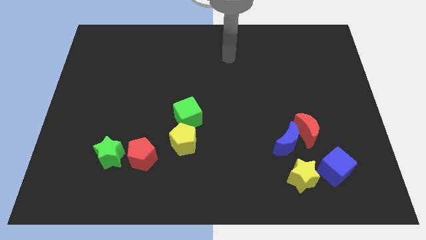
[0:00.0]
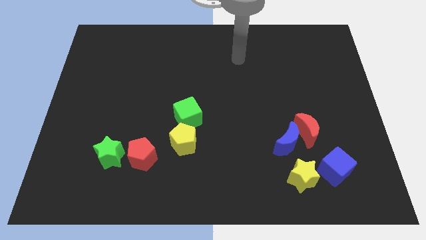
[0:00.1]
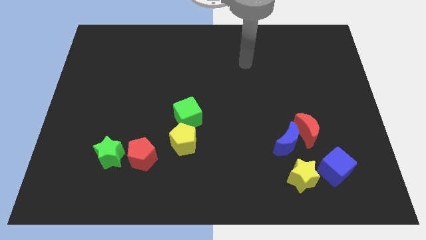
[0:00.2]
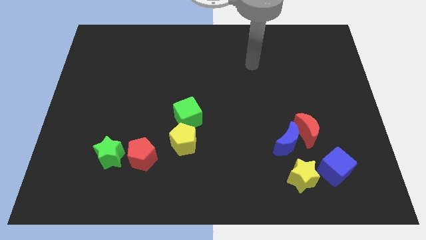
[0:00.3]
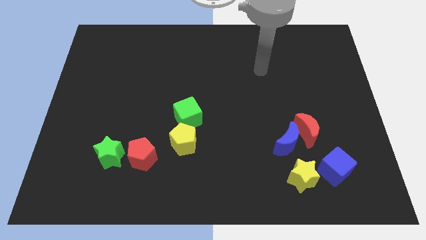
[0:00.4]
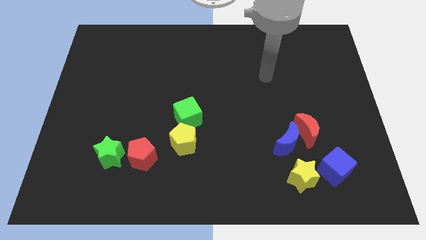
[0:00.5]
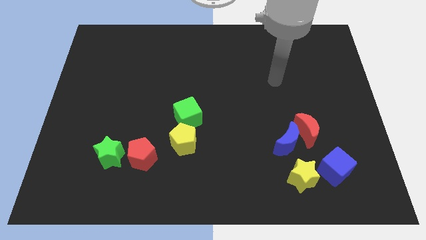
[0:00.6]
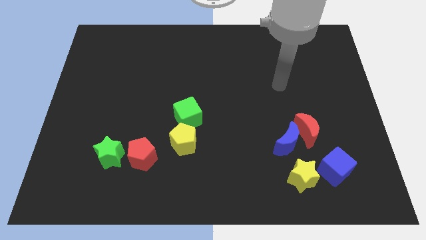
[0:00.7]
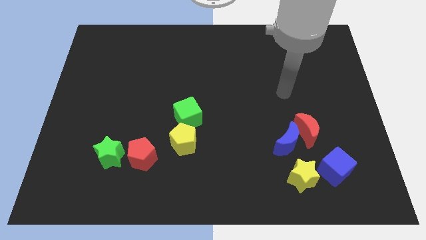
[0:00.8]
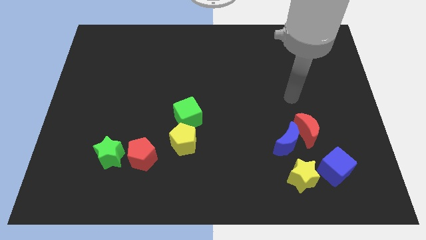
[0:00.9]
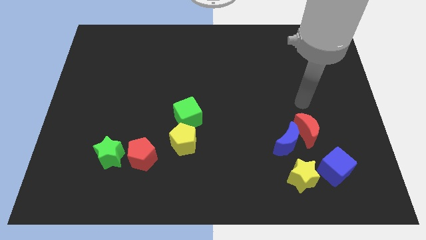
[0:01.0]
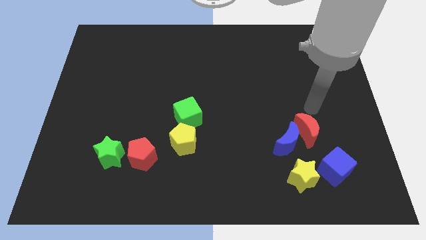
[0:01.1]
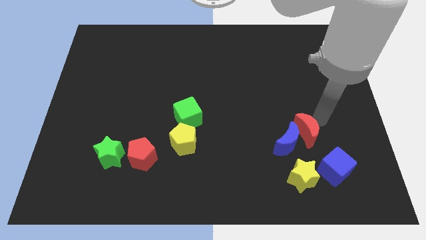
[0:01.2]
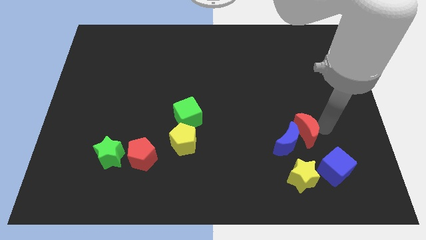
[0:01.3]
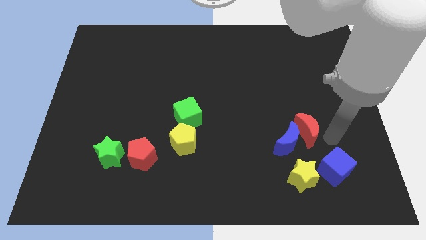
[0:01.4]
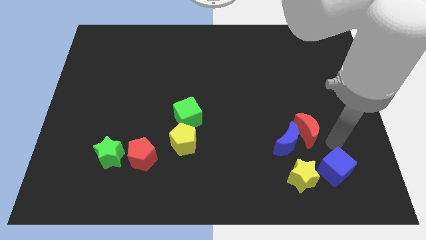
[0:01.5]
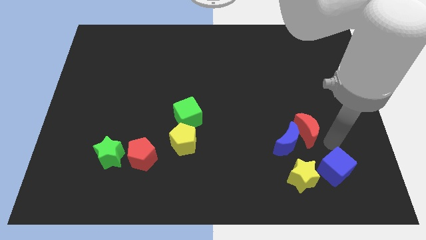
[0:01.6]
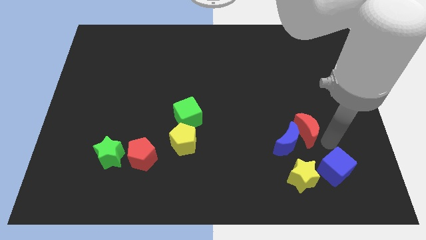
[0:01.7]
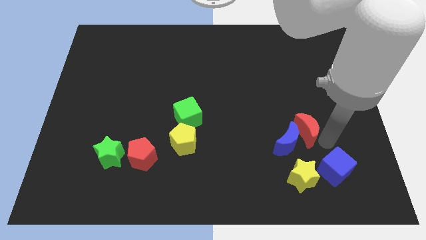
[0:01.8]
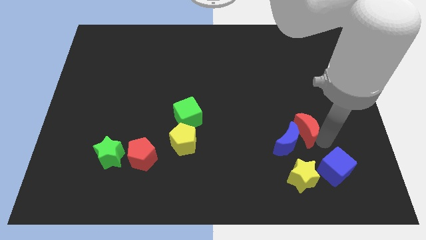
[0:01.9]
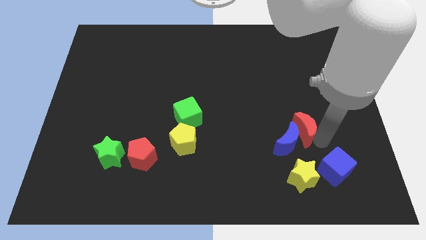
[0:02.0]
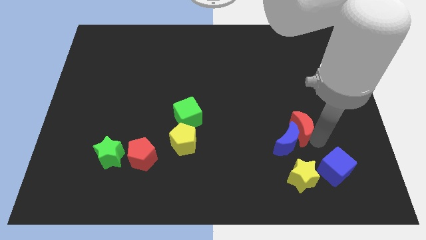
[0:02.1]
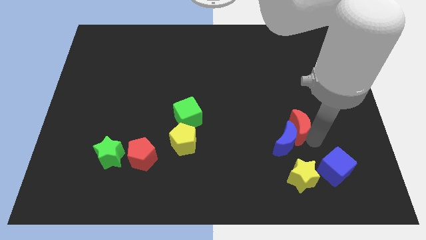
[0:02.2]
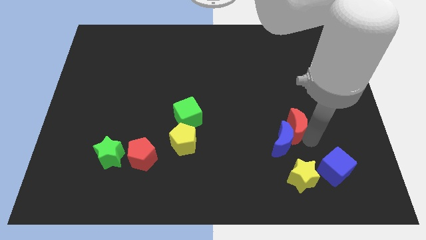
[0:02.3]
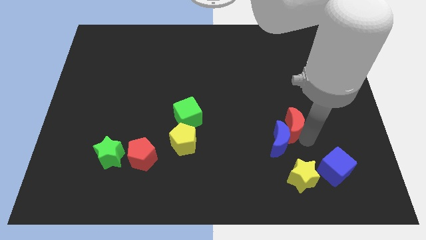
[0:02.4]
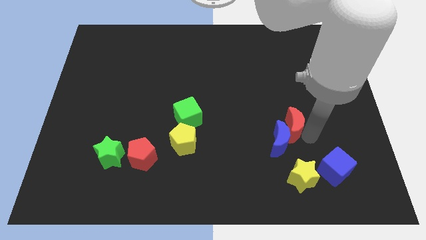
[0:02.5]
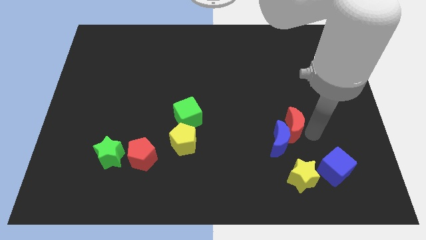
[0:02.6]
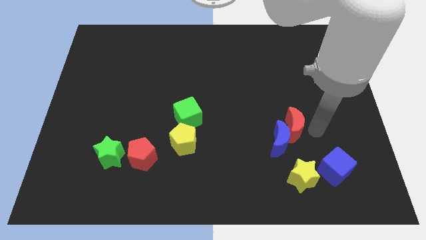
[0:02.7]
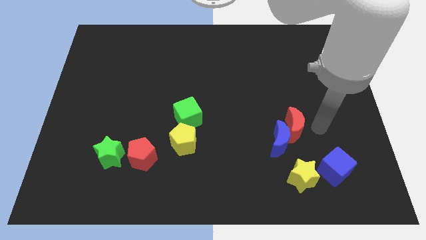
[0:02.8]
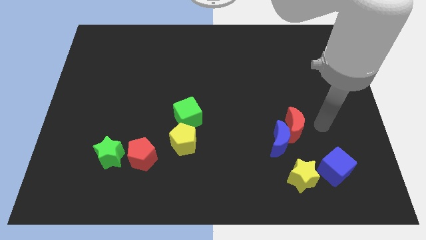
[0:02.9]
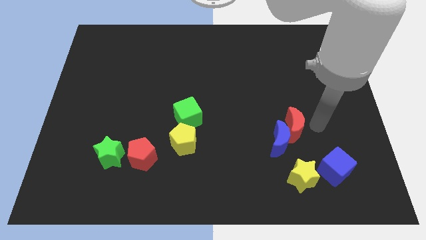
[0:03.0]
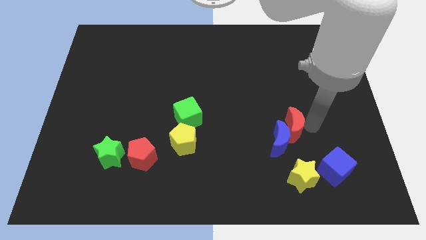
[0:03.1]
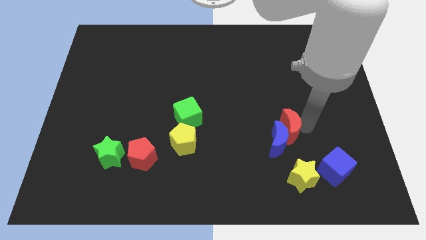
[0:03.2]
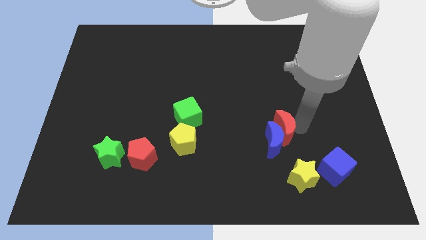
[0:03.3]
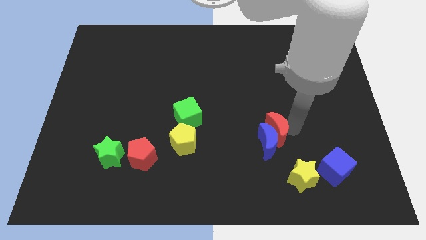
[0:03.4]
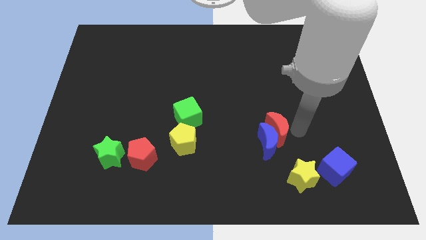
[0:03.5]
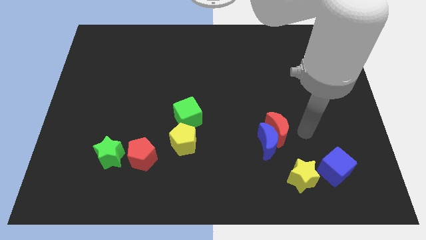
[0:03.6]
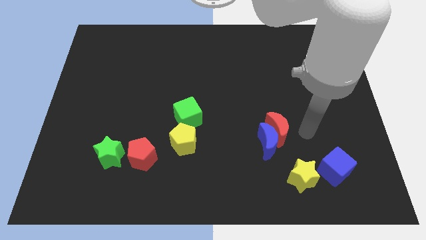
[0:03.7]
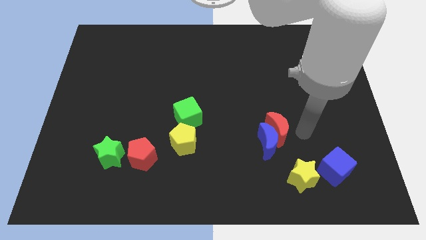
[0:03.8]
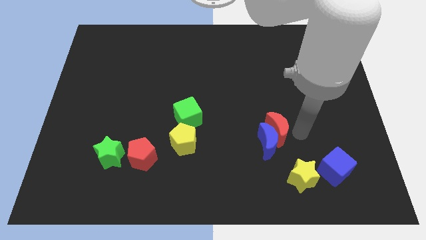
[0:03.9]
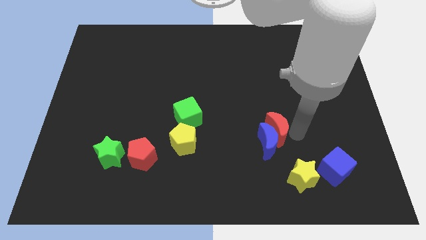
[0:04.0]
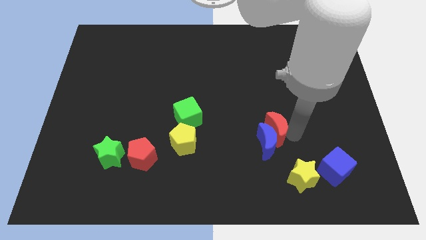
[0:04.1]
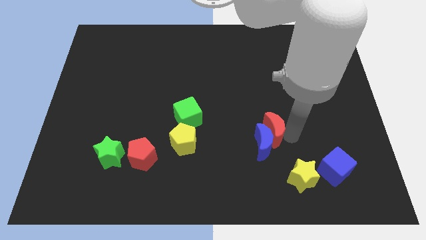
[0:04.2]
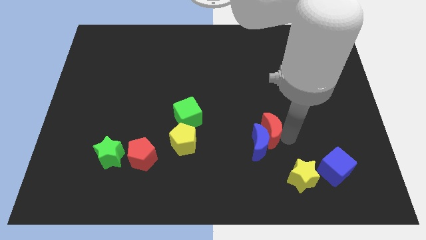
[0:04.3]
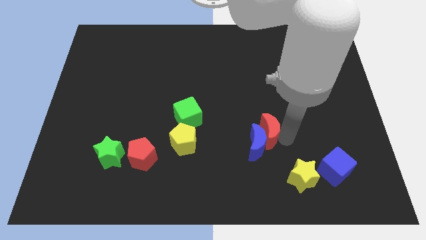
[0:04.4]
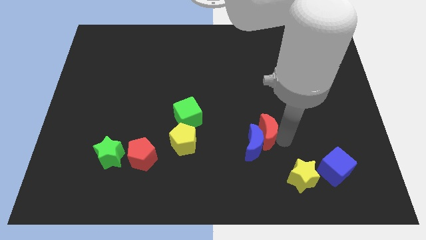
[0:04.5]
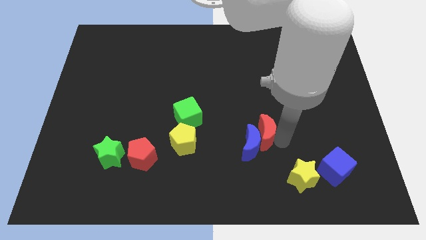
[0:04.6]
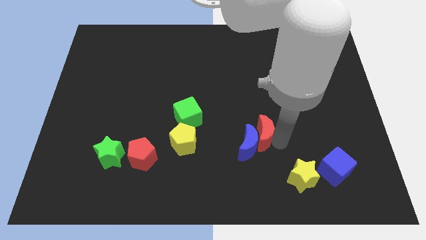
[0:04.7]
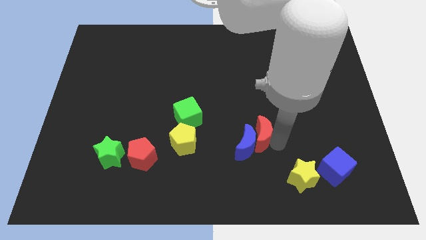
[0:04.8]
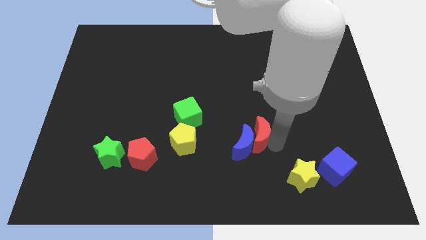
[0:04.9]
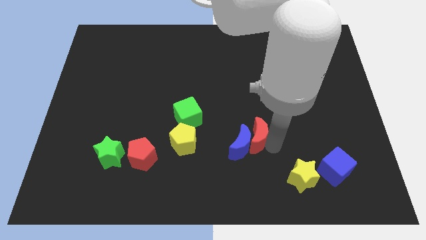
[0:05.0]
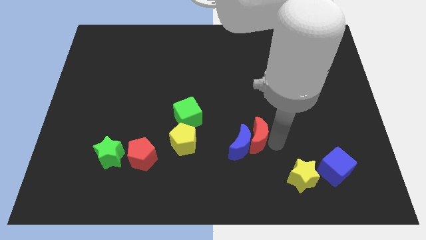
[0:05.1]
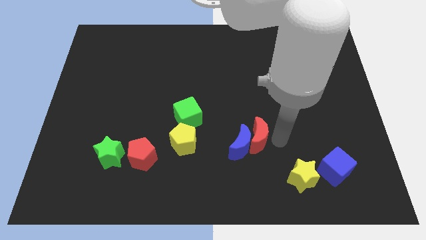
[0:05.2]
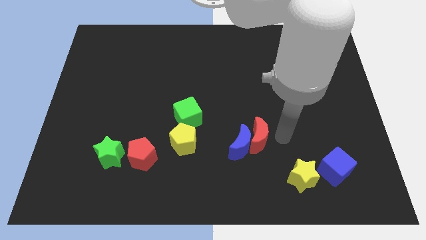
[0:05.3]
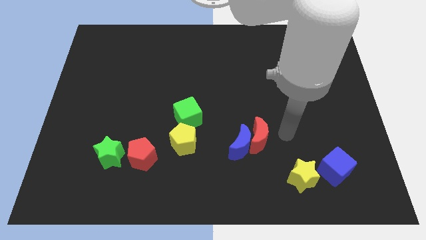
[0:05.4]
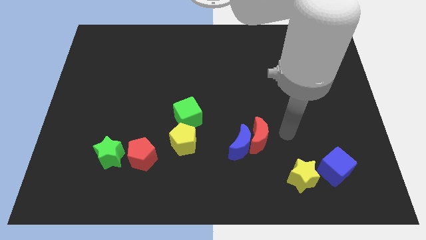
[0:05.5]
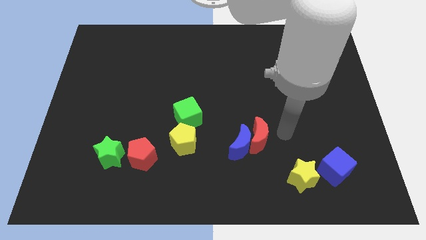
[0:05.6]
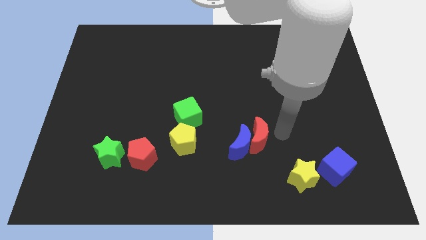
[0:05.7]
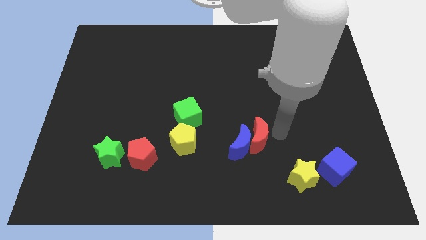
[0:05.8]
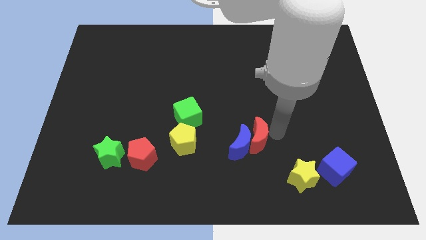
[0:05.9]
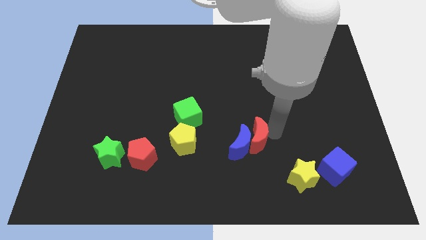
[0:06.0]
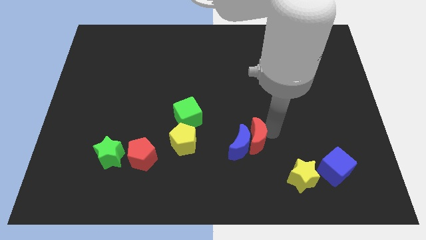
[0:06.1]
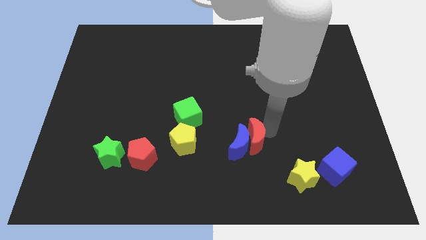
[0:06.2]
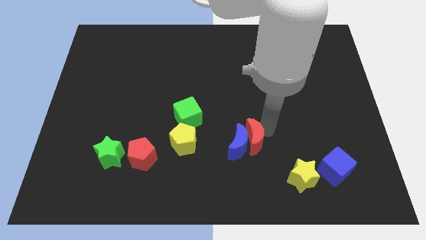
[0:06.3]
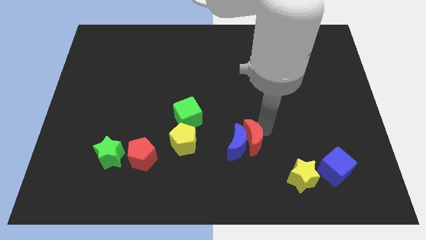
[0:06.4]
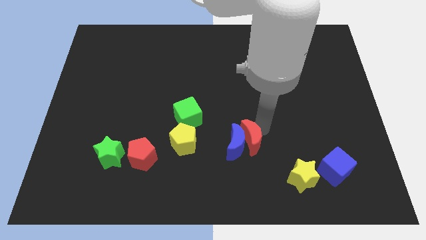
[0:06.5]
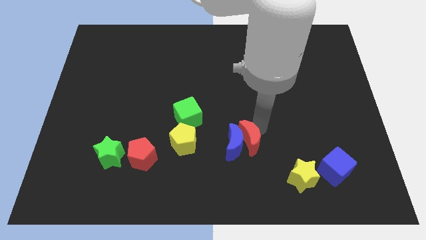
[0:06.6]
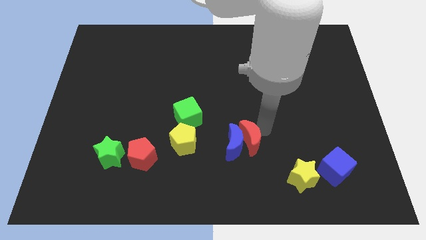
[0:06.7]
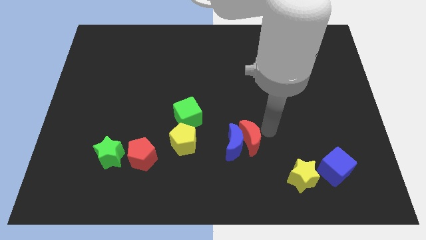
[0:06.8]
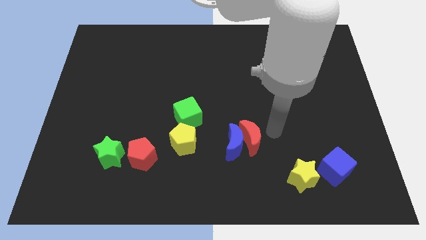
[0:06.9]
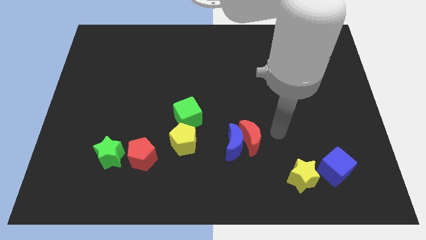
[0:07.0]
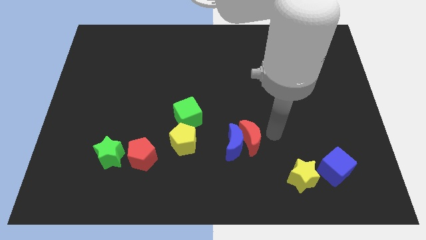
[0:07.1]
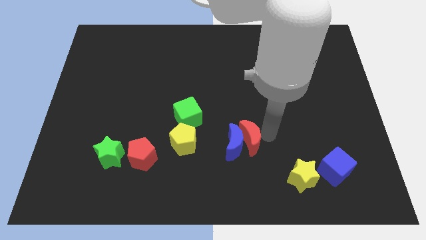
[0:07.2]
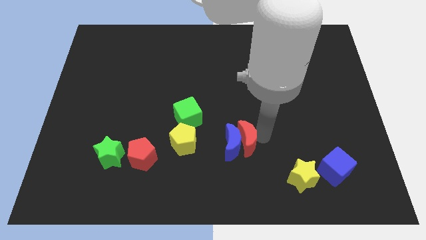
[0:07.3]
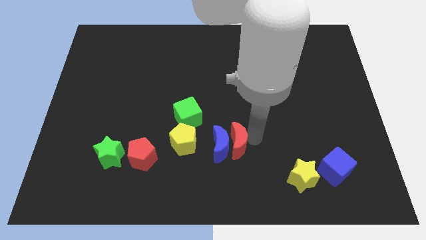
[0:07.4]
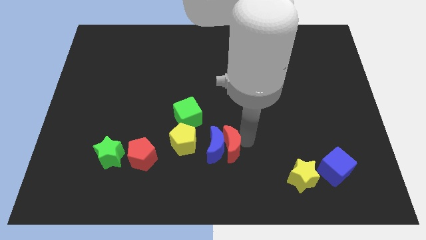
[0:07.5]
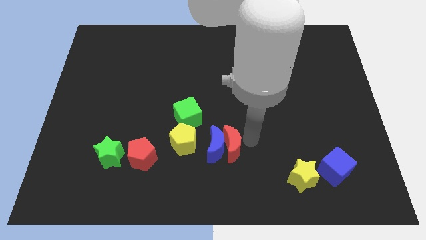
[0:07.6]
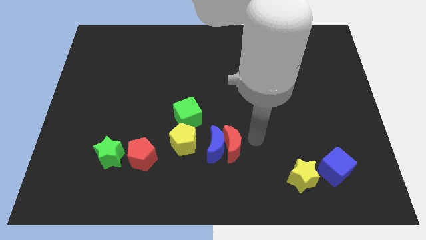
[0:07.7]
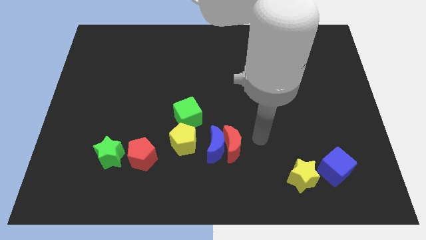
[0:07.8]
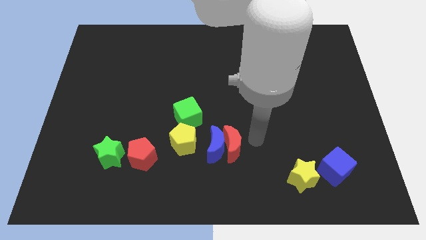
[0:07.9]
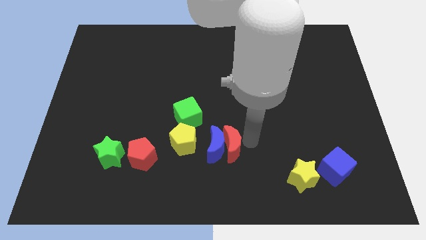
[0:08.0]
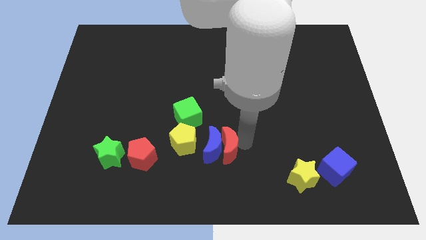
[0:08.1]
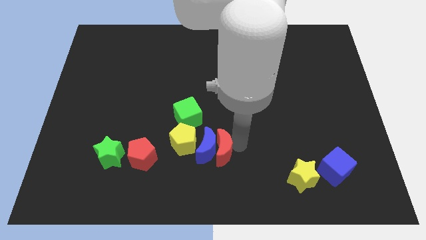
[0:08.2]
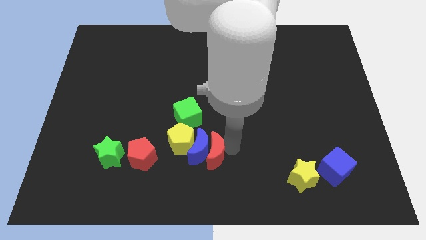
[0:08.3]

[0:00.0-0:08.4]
slide the red moon to the right side of the red pentagon
